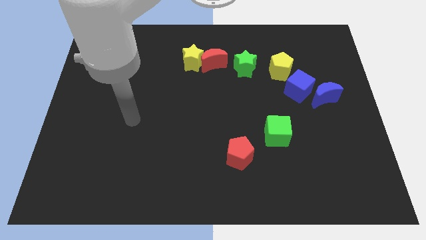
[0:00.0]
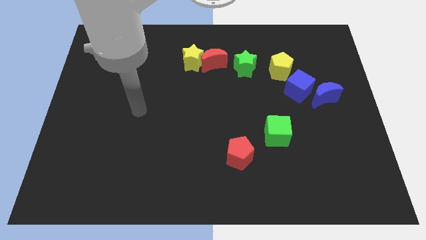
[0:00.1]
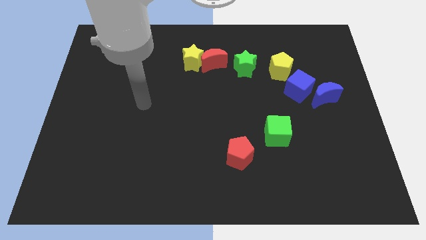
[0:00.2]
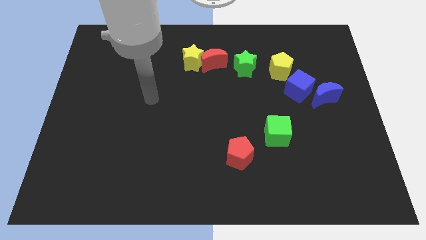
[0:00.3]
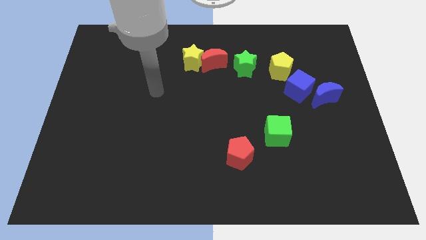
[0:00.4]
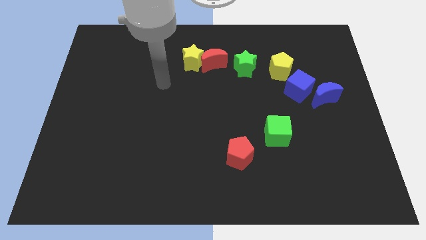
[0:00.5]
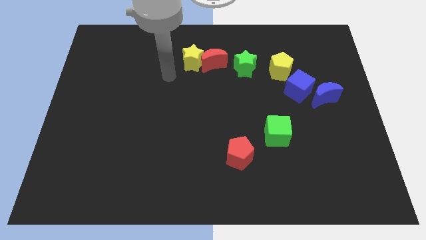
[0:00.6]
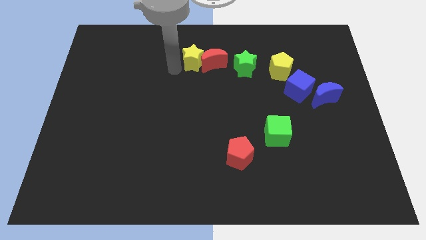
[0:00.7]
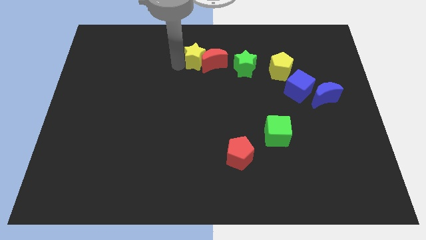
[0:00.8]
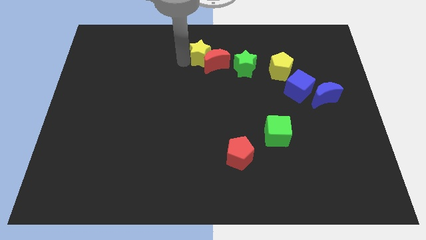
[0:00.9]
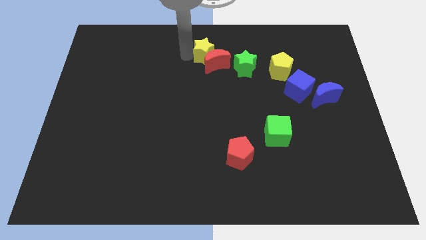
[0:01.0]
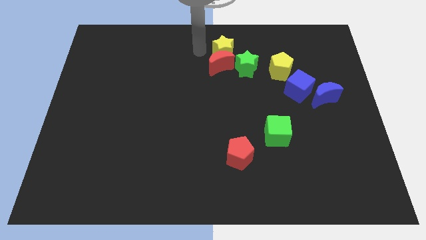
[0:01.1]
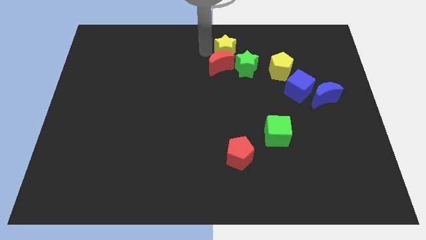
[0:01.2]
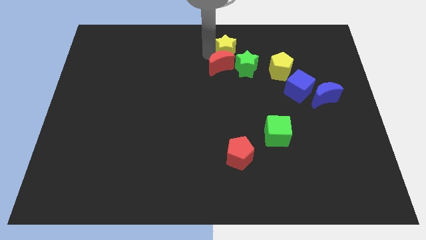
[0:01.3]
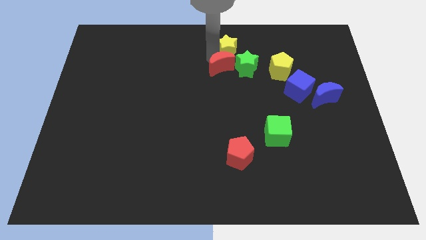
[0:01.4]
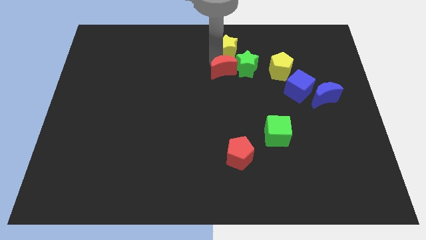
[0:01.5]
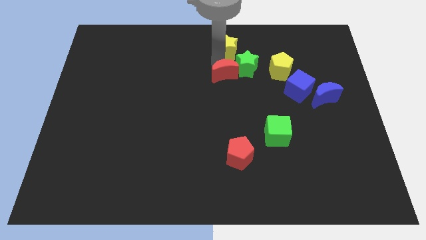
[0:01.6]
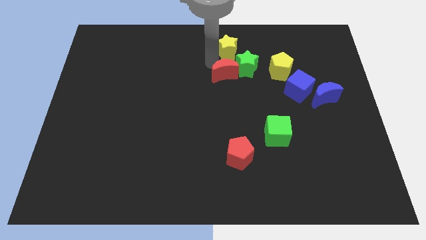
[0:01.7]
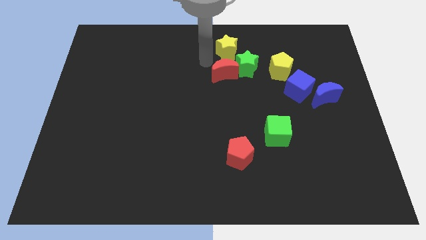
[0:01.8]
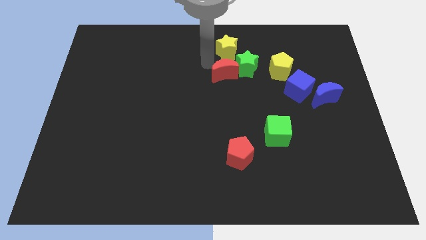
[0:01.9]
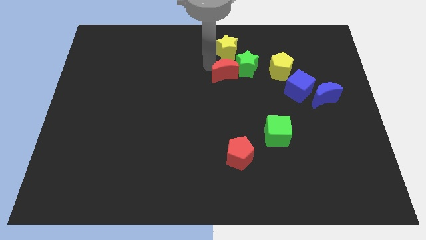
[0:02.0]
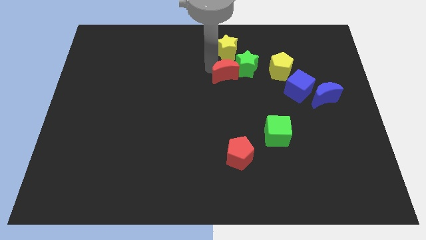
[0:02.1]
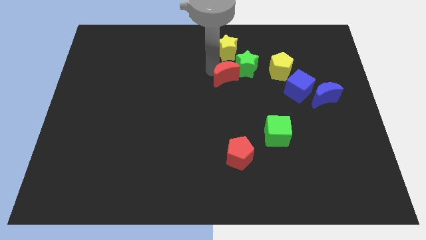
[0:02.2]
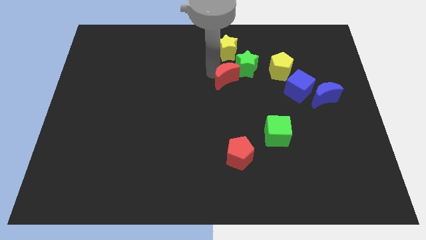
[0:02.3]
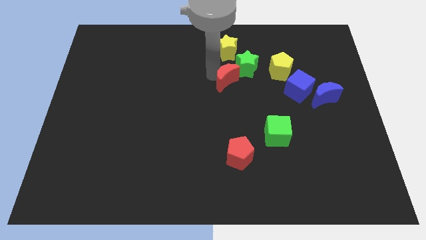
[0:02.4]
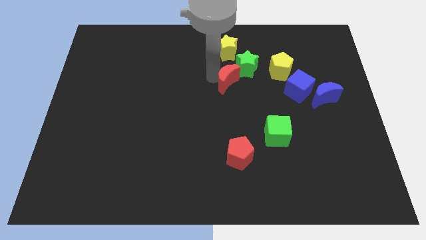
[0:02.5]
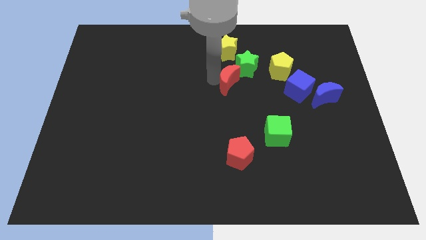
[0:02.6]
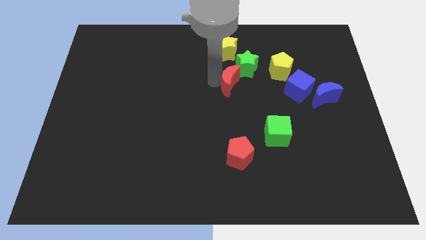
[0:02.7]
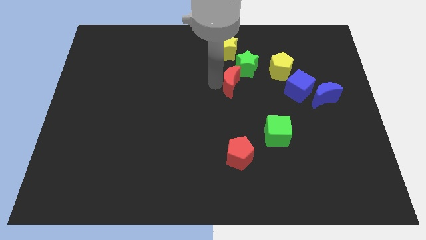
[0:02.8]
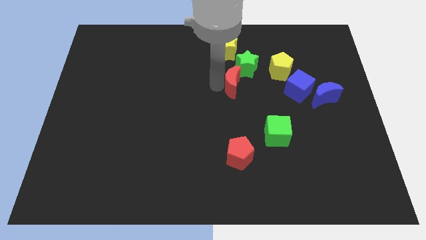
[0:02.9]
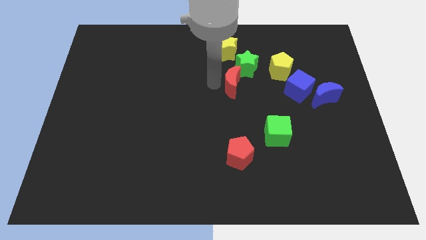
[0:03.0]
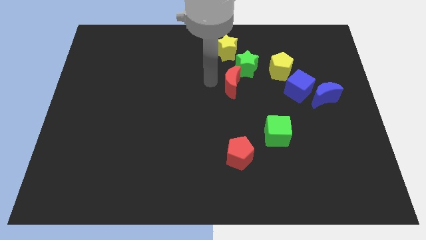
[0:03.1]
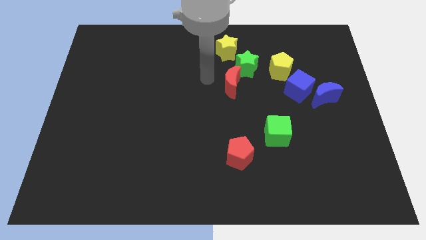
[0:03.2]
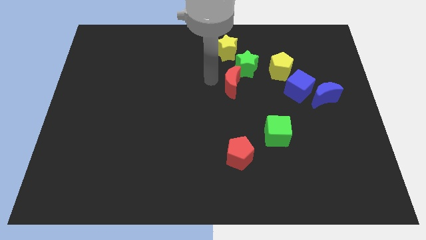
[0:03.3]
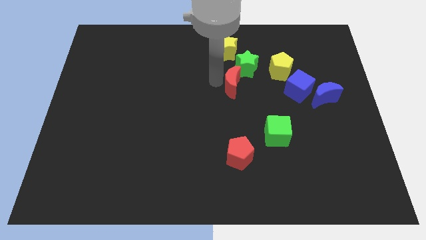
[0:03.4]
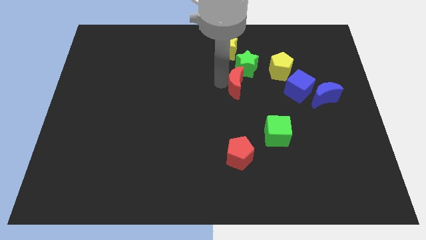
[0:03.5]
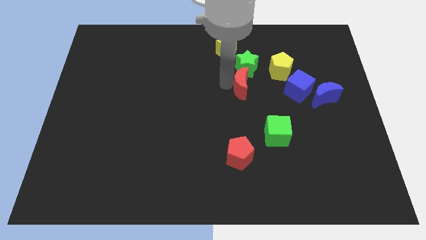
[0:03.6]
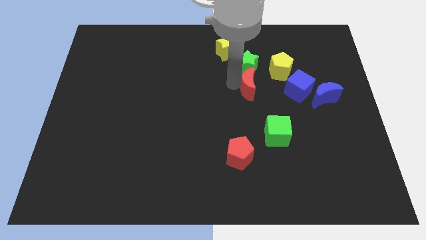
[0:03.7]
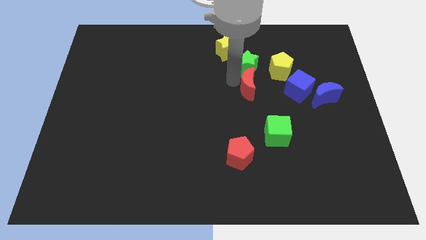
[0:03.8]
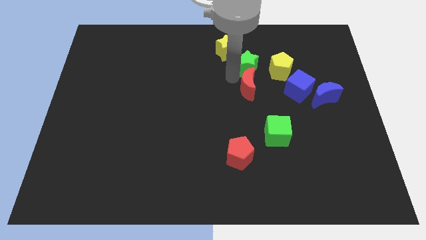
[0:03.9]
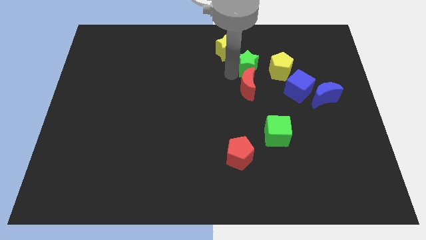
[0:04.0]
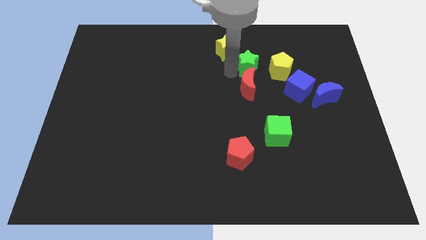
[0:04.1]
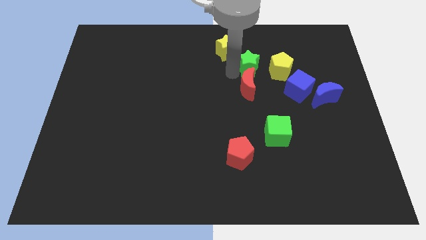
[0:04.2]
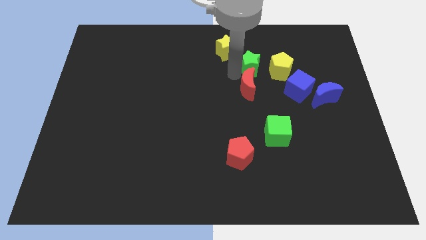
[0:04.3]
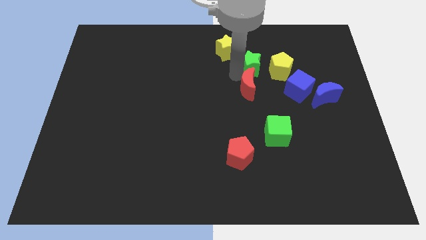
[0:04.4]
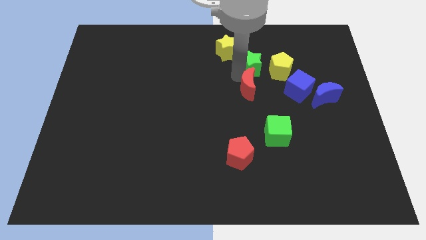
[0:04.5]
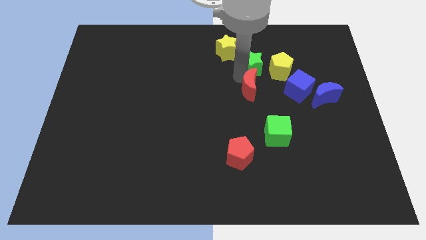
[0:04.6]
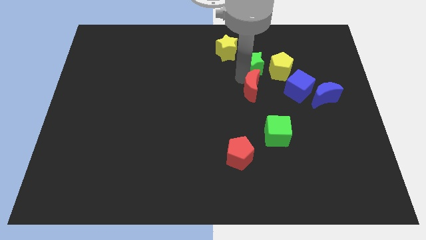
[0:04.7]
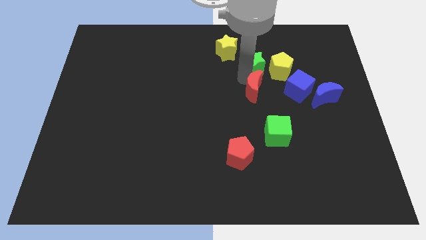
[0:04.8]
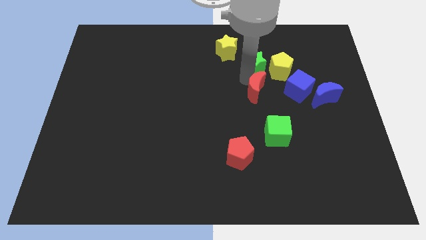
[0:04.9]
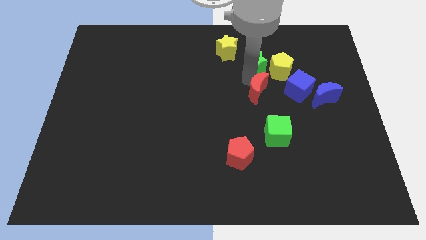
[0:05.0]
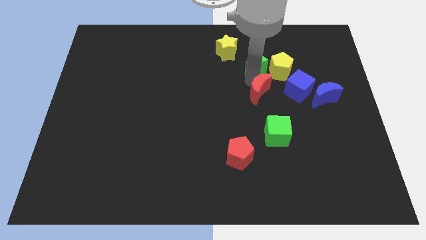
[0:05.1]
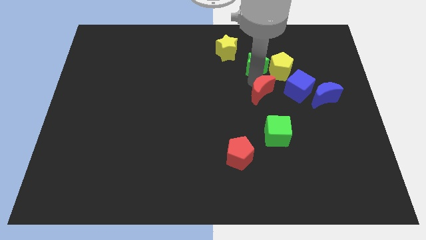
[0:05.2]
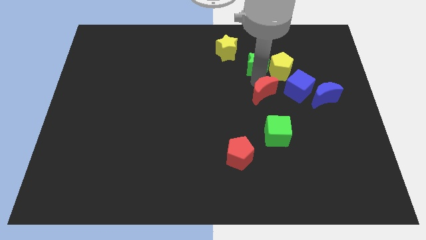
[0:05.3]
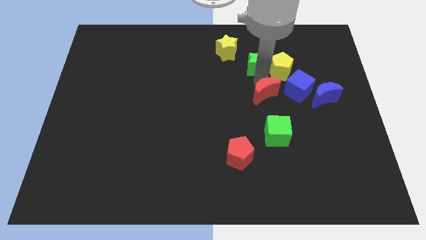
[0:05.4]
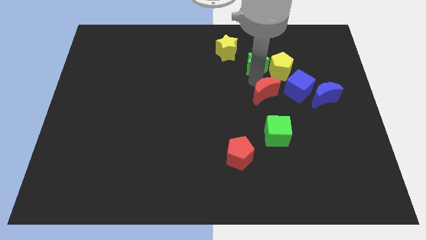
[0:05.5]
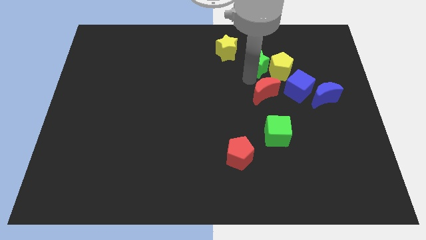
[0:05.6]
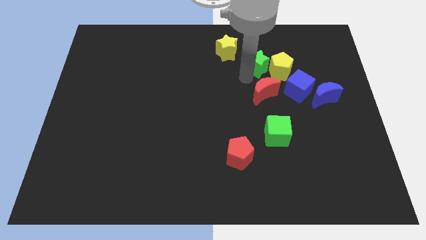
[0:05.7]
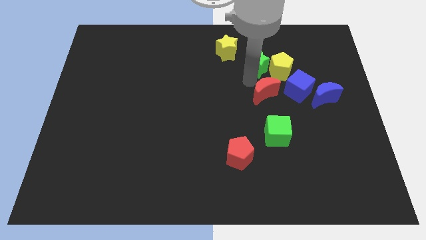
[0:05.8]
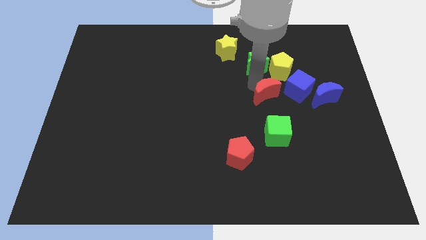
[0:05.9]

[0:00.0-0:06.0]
put the red moon to the bottom left of the blue cube

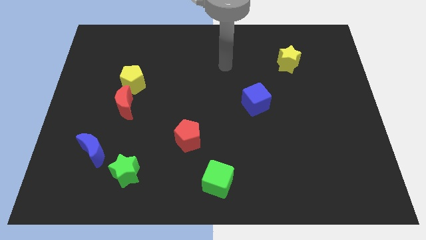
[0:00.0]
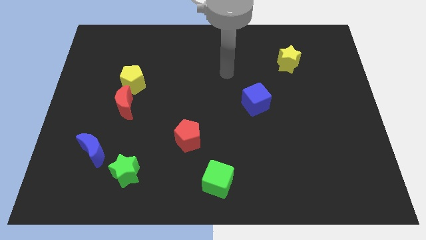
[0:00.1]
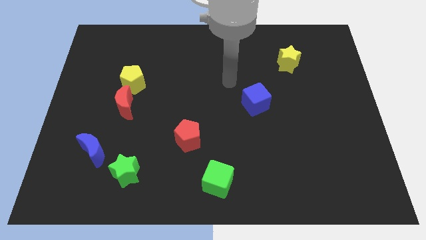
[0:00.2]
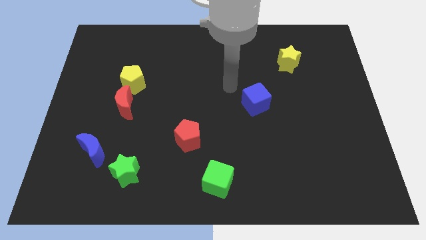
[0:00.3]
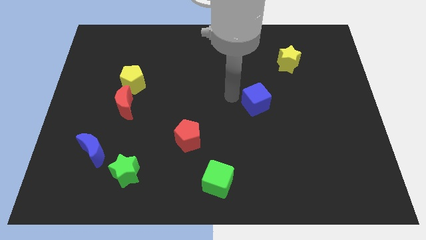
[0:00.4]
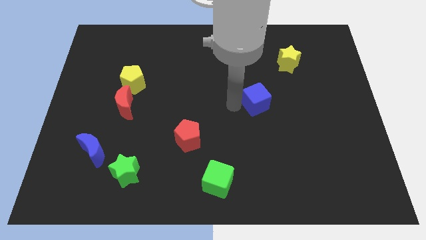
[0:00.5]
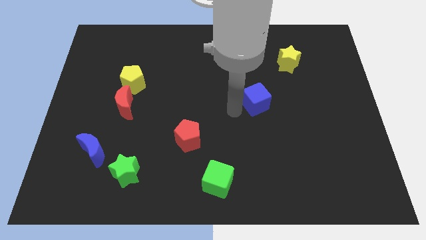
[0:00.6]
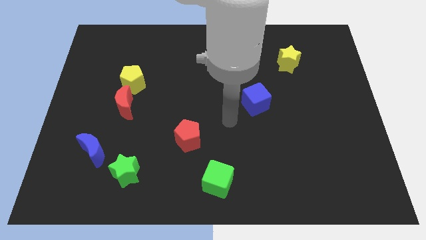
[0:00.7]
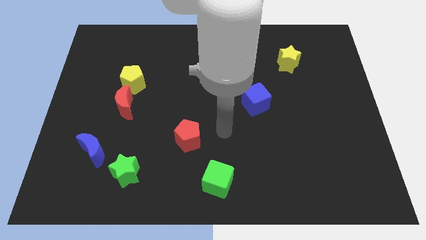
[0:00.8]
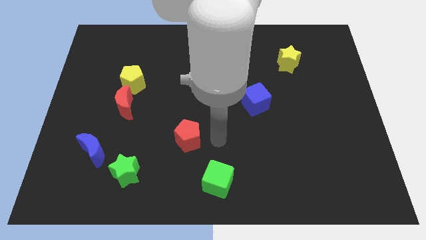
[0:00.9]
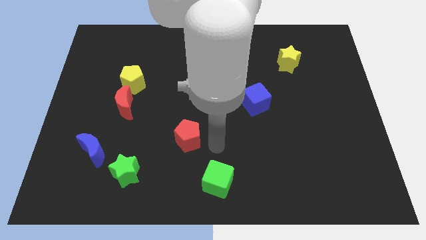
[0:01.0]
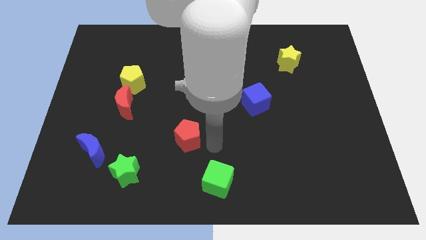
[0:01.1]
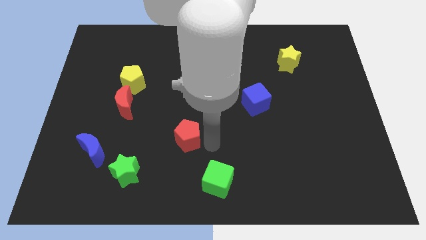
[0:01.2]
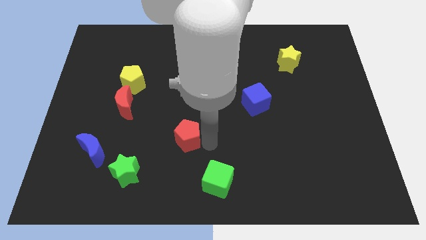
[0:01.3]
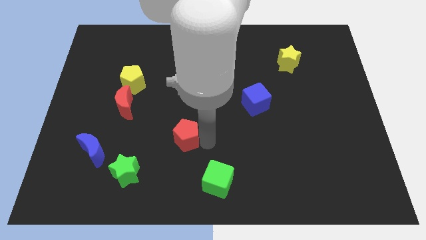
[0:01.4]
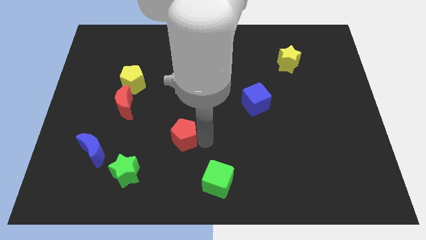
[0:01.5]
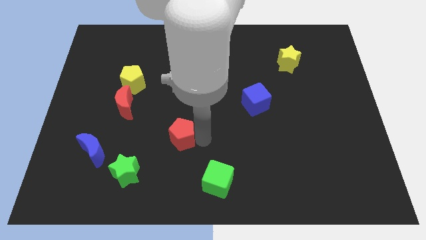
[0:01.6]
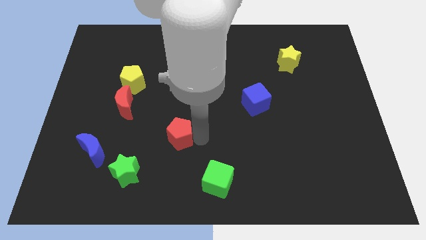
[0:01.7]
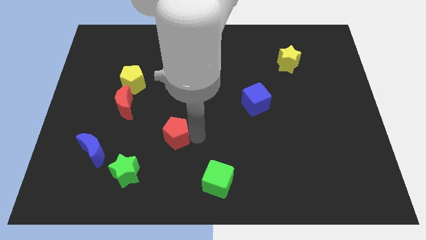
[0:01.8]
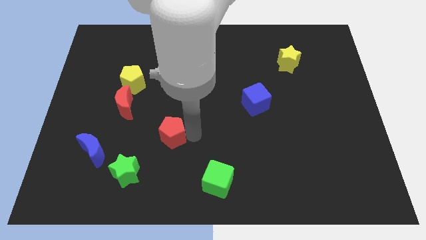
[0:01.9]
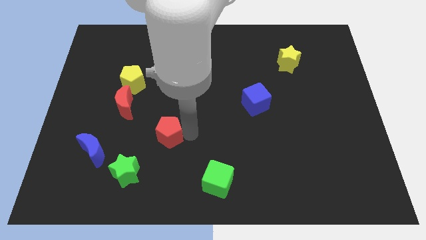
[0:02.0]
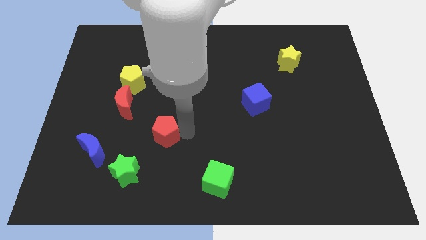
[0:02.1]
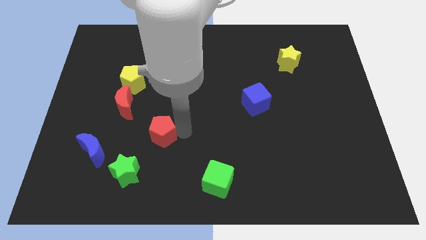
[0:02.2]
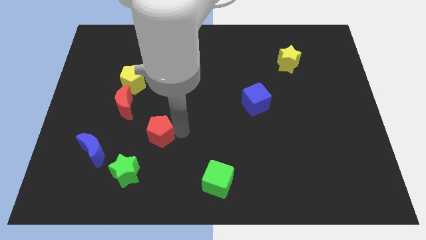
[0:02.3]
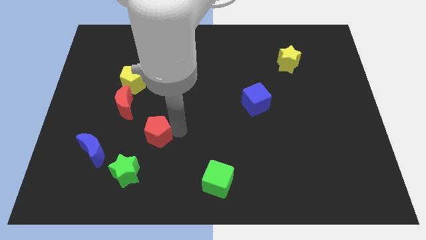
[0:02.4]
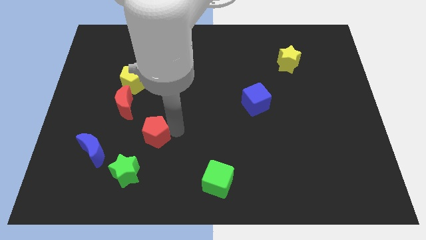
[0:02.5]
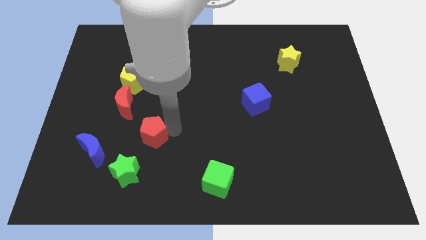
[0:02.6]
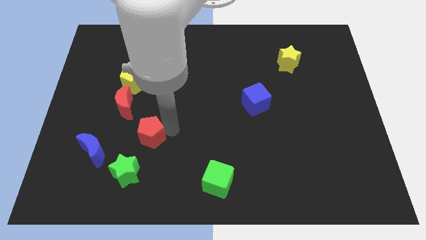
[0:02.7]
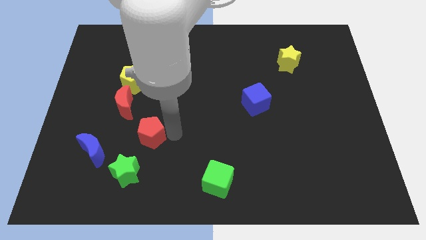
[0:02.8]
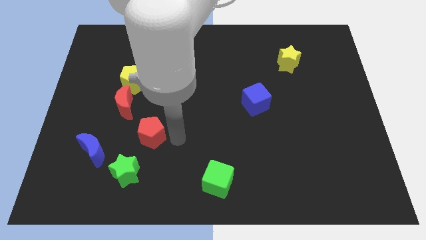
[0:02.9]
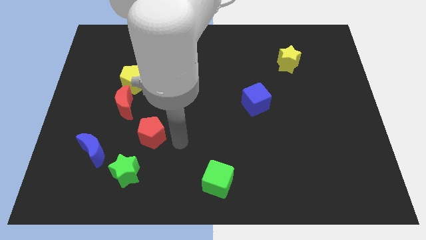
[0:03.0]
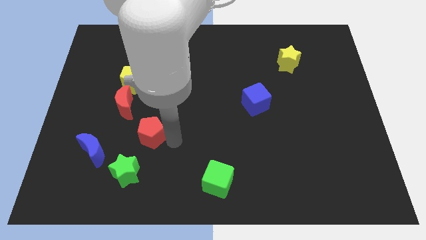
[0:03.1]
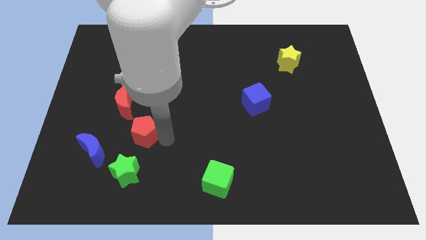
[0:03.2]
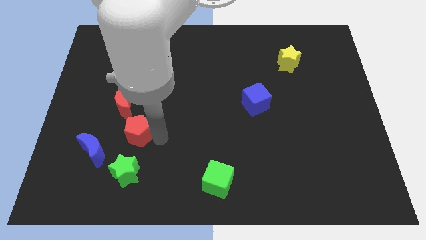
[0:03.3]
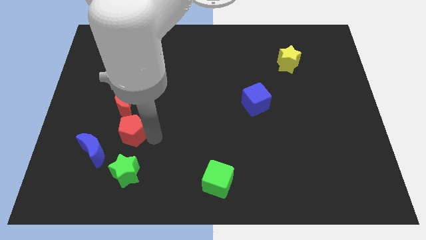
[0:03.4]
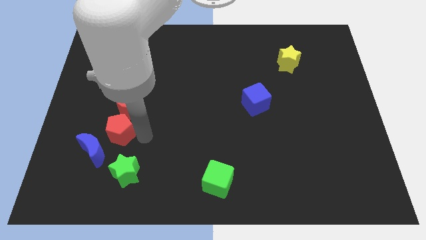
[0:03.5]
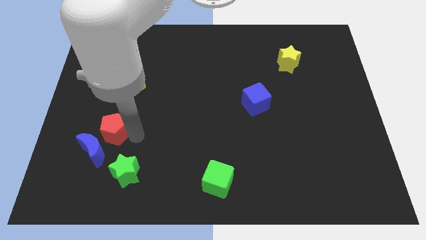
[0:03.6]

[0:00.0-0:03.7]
move the red pentagon to the bottom left of the red moon
